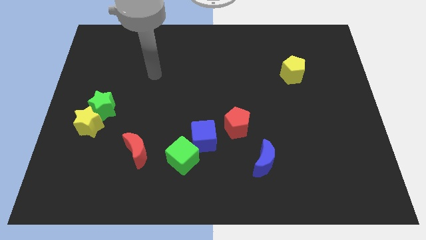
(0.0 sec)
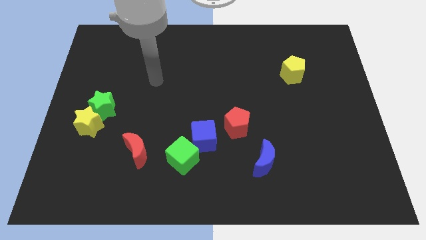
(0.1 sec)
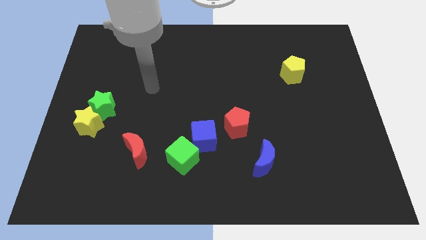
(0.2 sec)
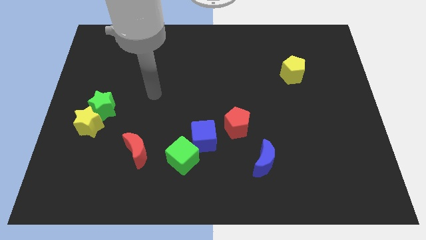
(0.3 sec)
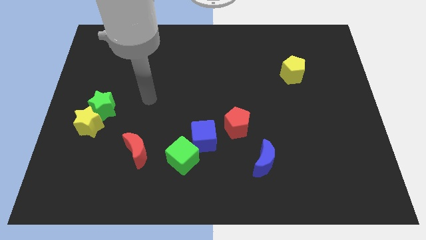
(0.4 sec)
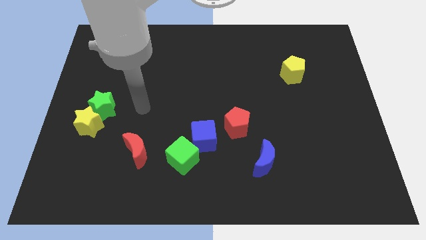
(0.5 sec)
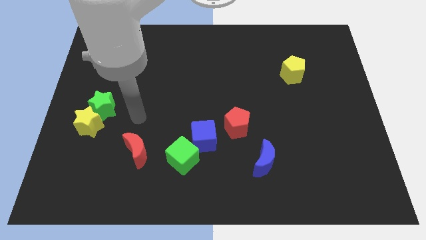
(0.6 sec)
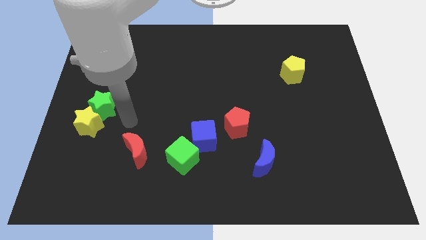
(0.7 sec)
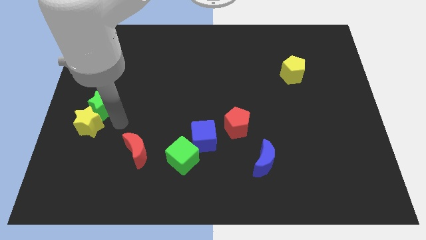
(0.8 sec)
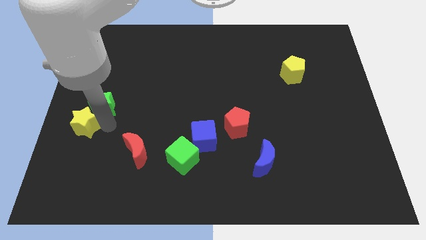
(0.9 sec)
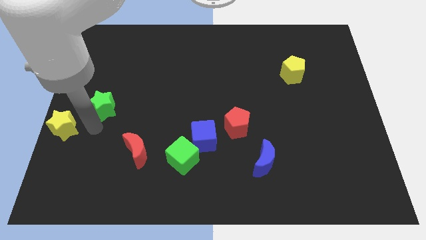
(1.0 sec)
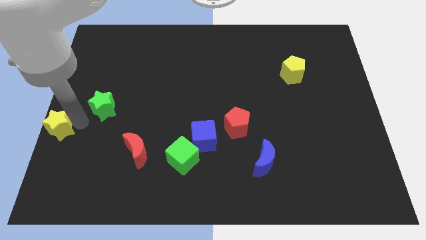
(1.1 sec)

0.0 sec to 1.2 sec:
separate the green star from the yellow star

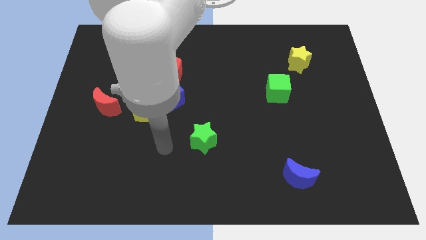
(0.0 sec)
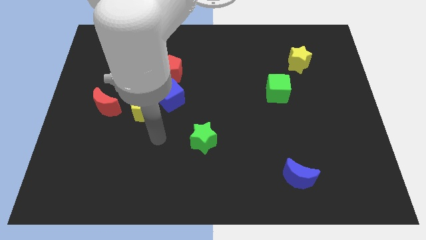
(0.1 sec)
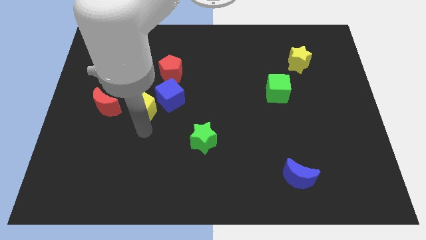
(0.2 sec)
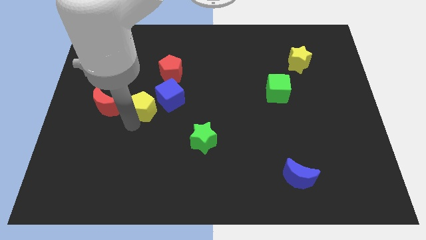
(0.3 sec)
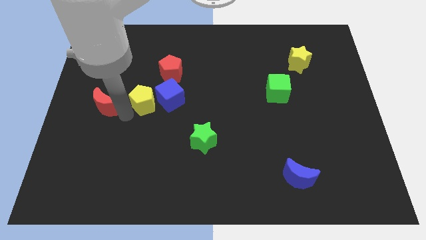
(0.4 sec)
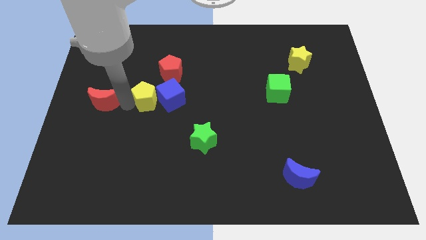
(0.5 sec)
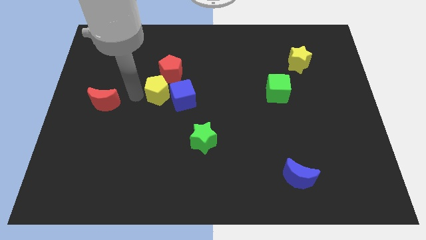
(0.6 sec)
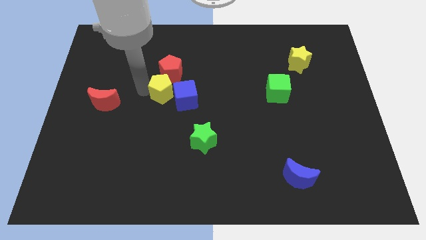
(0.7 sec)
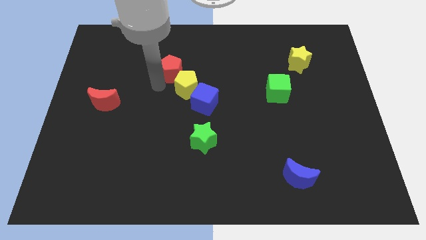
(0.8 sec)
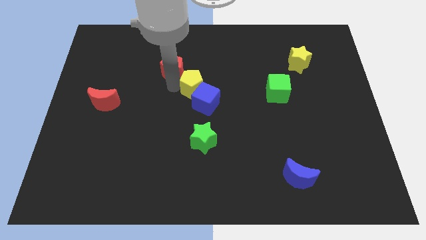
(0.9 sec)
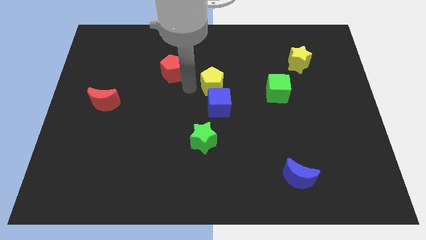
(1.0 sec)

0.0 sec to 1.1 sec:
separate the blue cube from the yellow pentagon and red pentagon

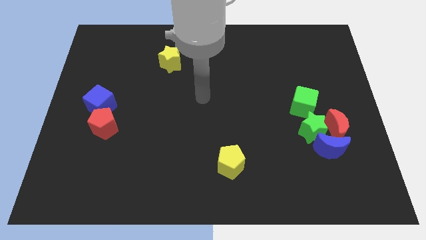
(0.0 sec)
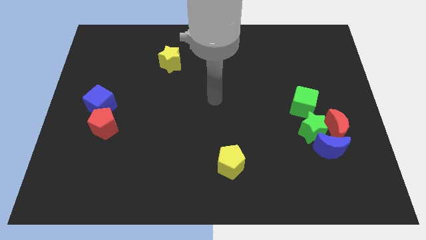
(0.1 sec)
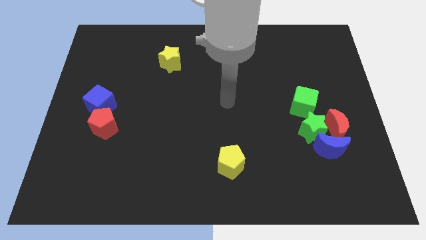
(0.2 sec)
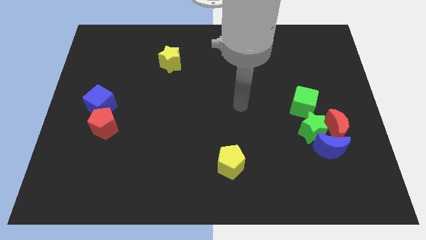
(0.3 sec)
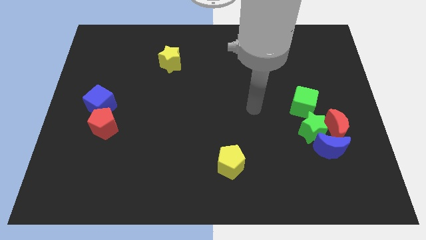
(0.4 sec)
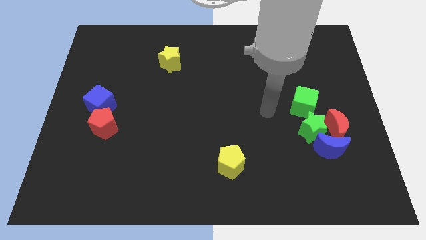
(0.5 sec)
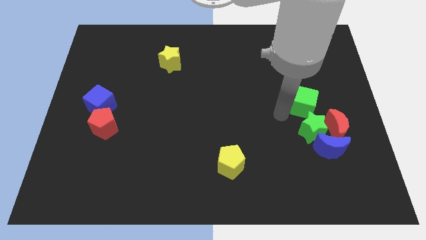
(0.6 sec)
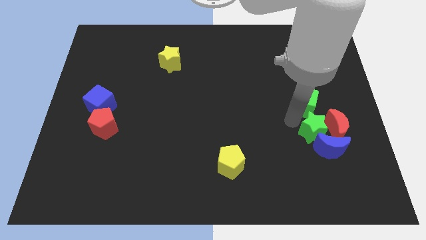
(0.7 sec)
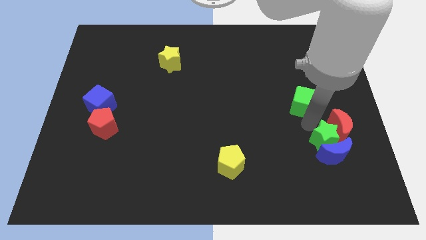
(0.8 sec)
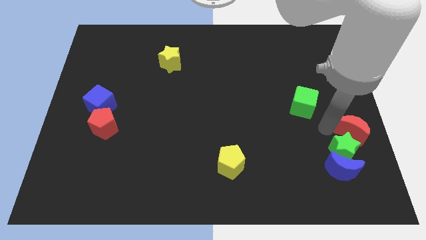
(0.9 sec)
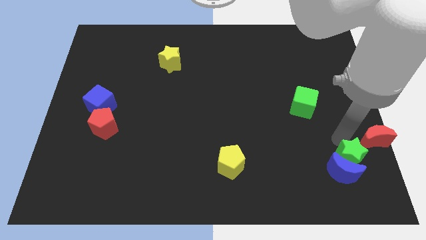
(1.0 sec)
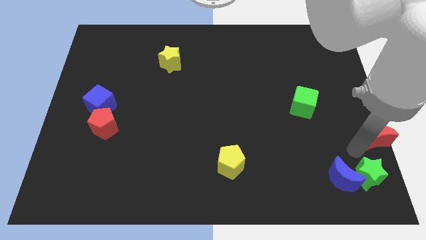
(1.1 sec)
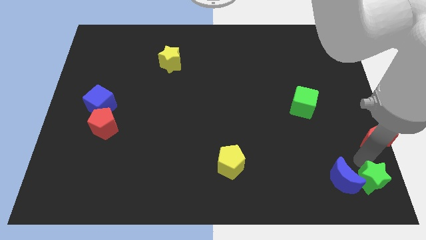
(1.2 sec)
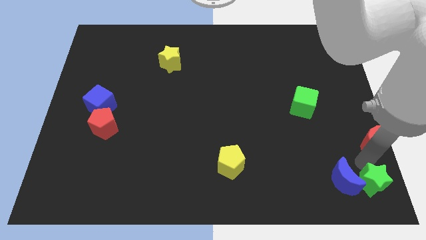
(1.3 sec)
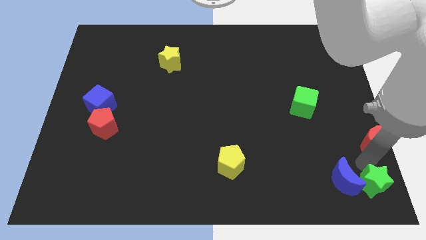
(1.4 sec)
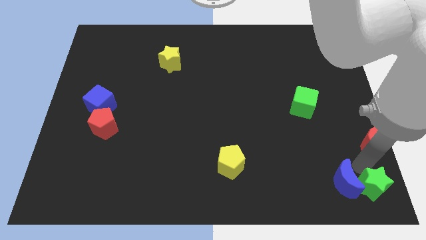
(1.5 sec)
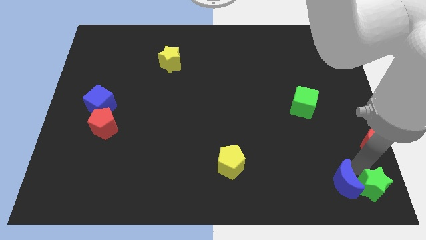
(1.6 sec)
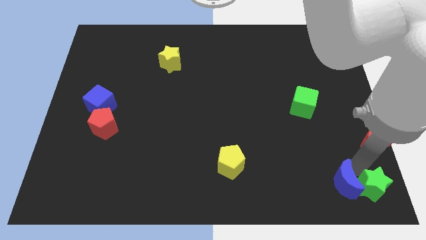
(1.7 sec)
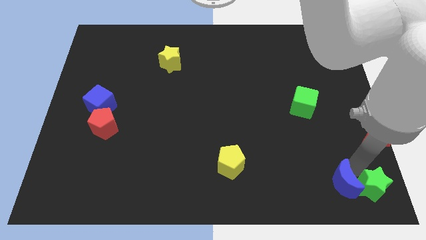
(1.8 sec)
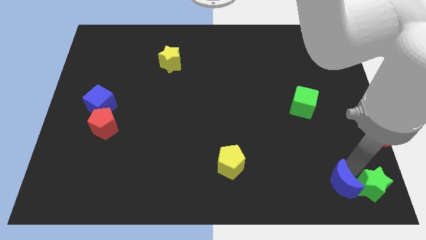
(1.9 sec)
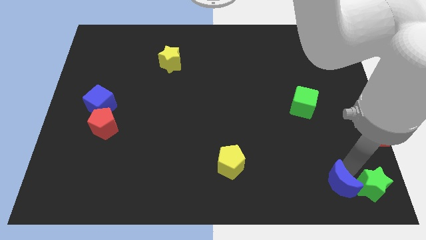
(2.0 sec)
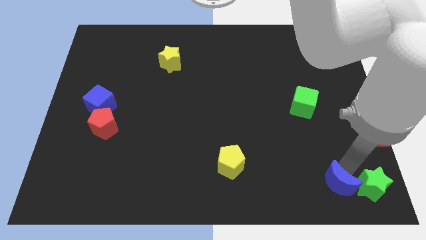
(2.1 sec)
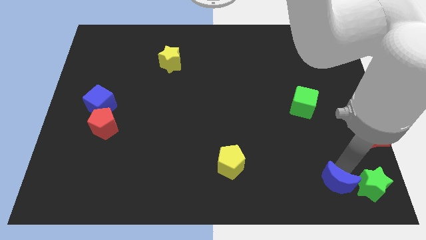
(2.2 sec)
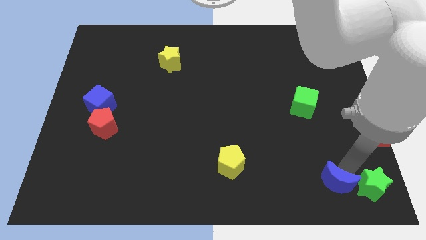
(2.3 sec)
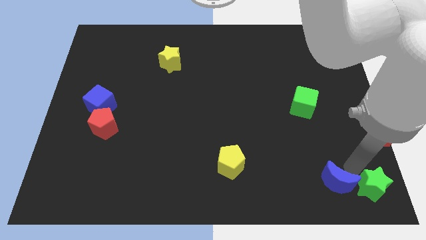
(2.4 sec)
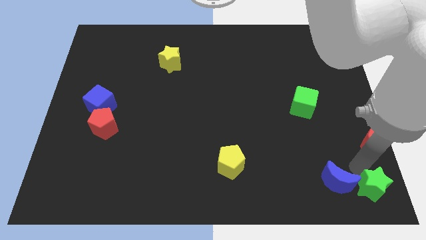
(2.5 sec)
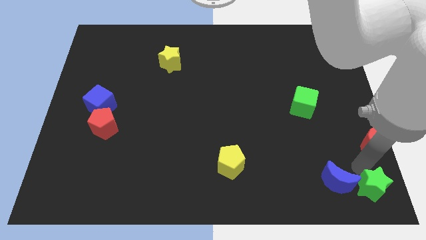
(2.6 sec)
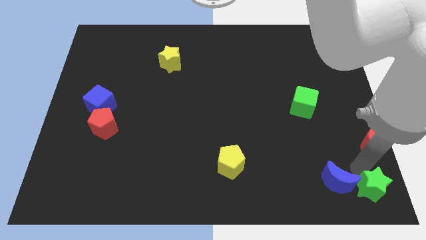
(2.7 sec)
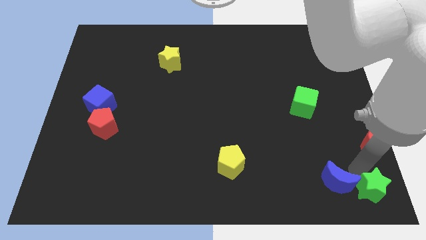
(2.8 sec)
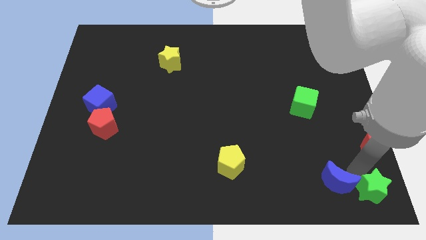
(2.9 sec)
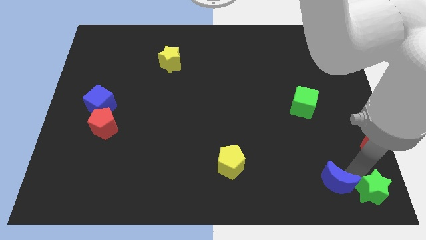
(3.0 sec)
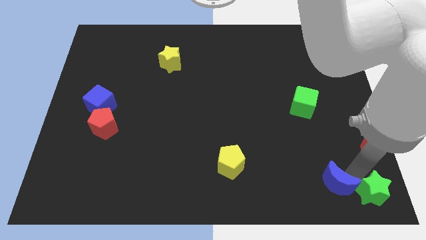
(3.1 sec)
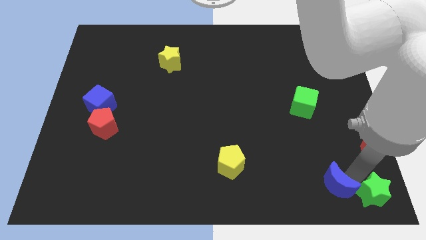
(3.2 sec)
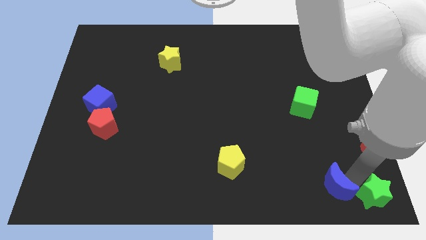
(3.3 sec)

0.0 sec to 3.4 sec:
separate the blue moon from the red moon and green star

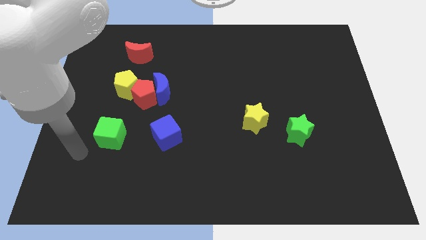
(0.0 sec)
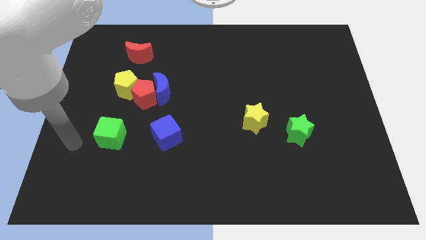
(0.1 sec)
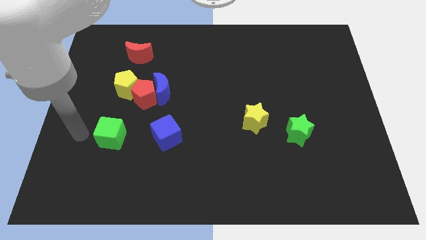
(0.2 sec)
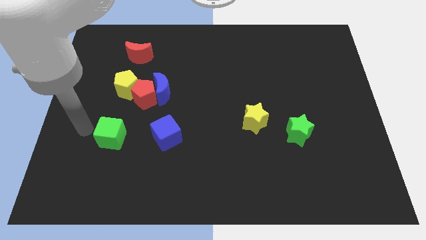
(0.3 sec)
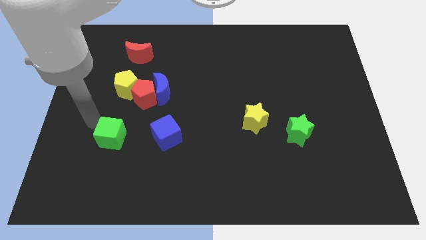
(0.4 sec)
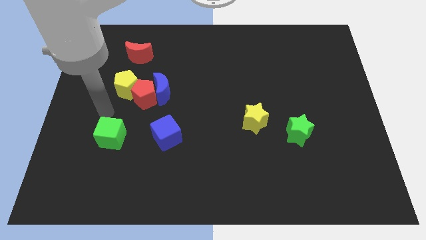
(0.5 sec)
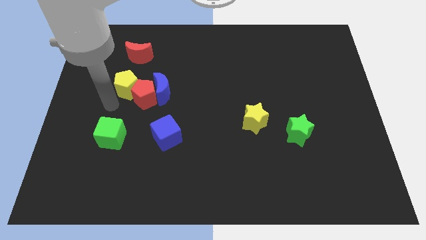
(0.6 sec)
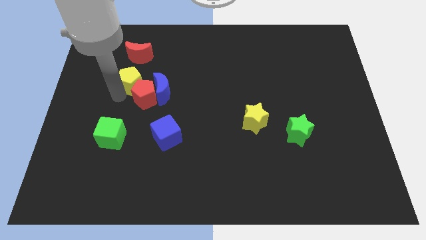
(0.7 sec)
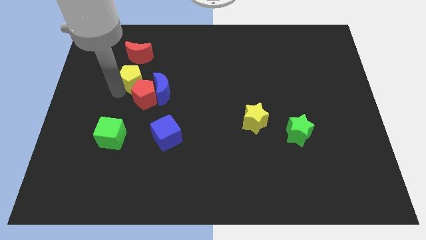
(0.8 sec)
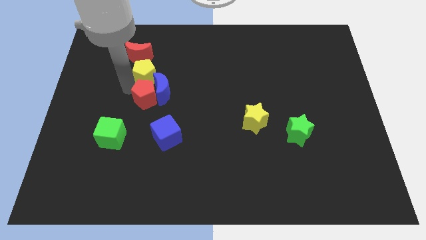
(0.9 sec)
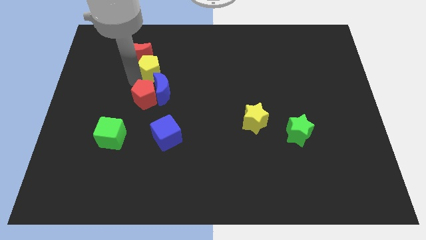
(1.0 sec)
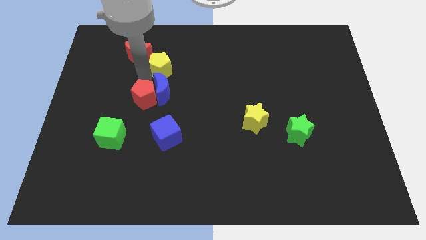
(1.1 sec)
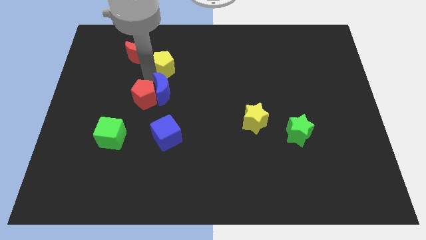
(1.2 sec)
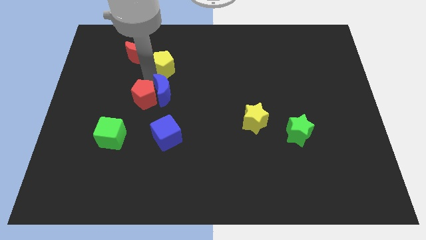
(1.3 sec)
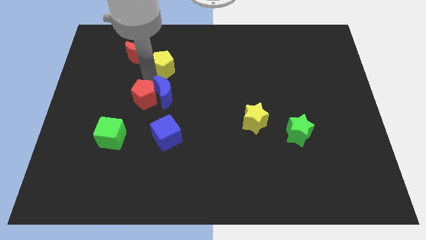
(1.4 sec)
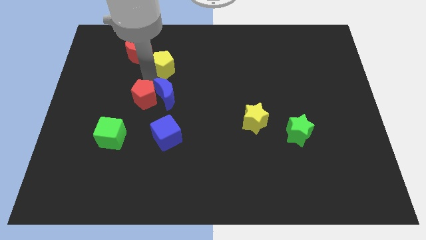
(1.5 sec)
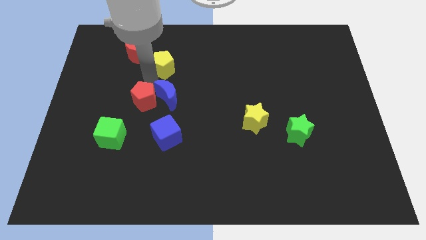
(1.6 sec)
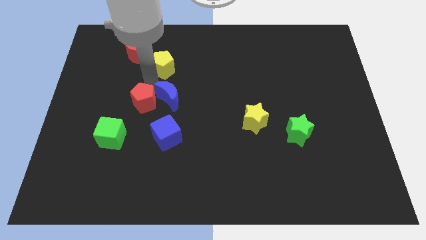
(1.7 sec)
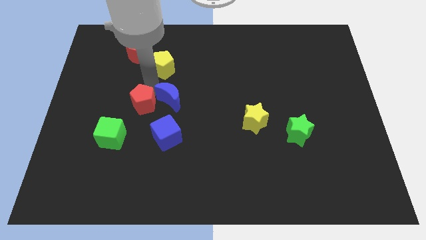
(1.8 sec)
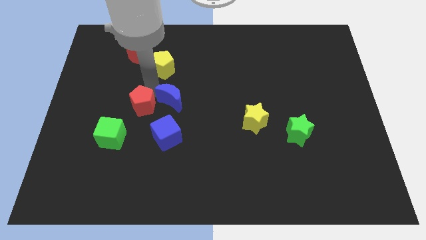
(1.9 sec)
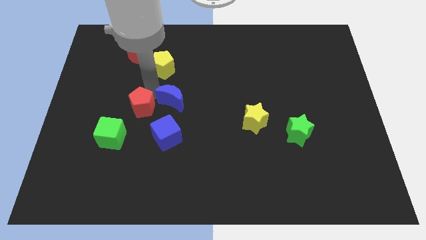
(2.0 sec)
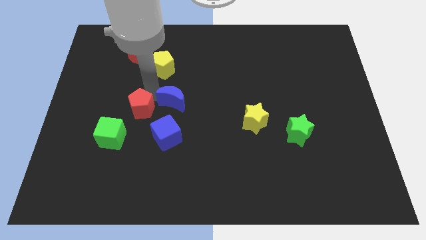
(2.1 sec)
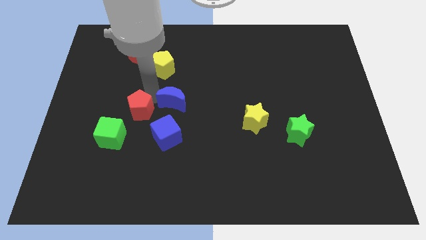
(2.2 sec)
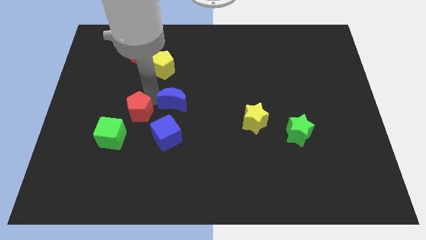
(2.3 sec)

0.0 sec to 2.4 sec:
separate the red pentagon from the blue moon and yellow pentagon

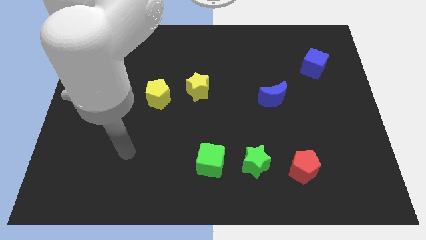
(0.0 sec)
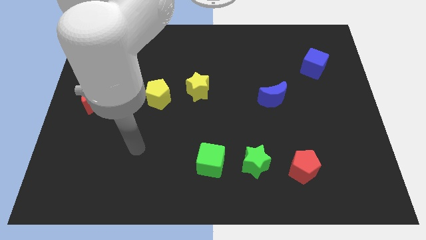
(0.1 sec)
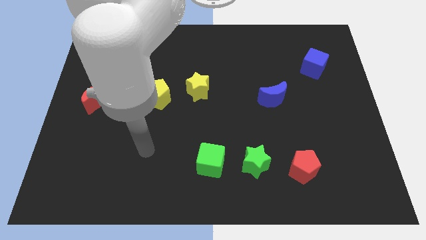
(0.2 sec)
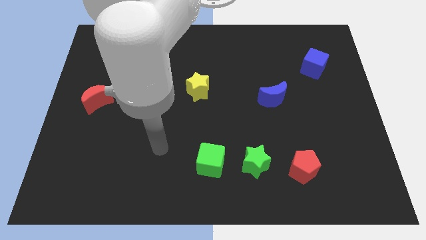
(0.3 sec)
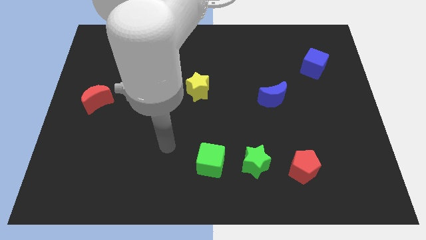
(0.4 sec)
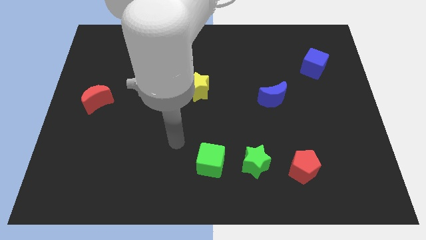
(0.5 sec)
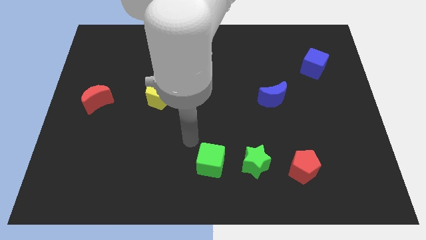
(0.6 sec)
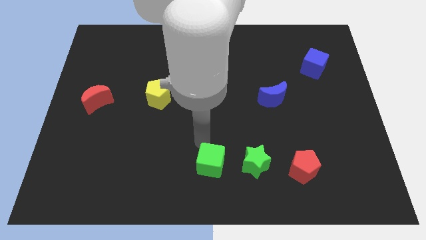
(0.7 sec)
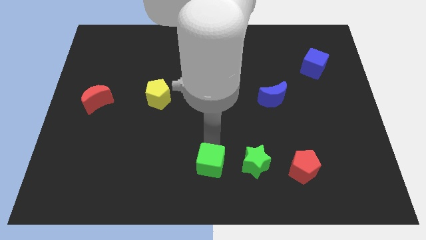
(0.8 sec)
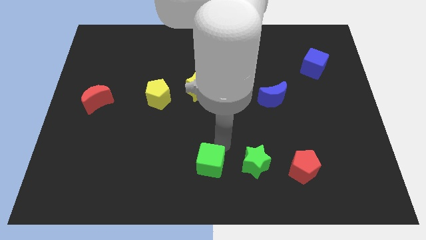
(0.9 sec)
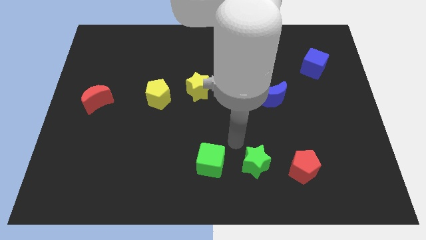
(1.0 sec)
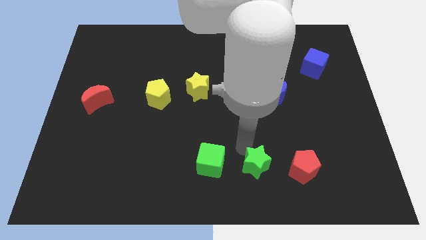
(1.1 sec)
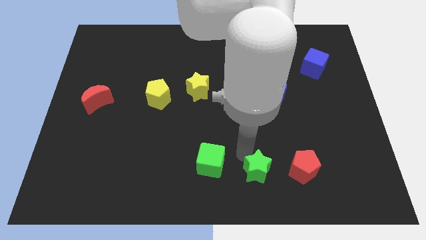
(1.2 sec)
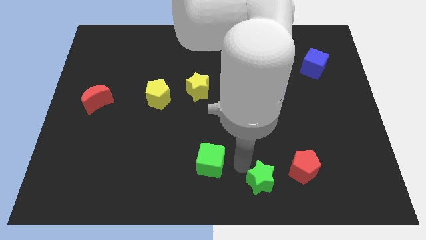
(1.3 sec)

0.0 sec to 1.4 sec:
separate the green cube from the green star
